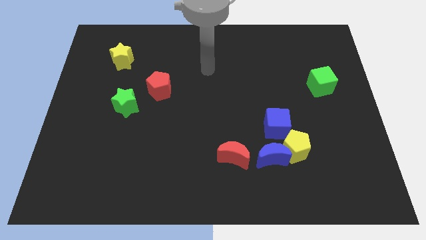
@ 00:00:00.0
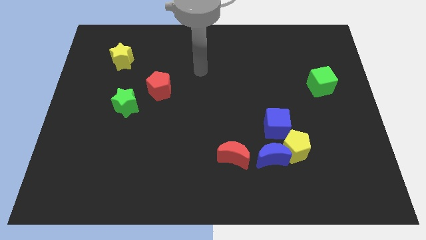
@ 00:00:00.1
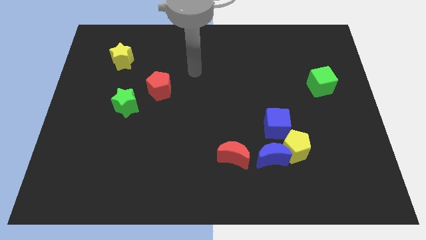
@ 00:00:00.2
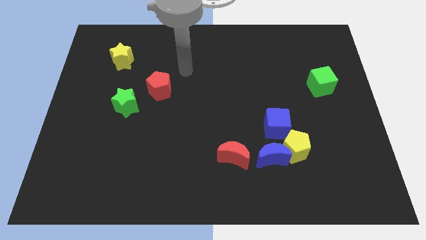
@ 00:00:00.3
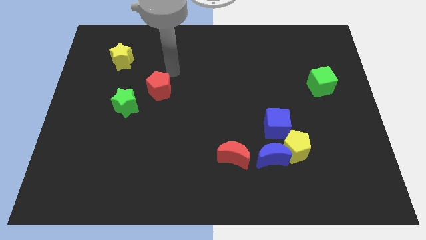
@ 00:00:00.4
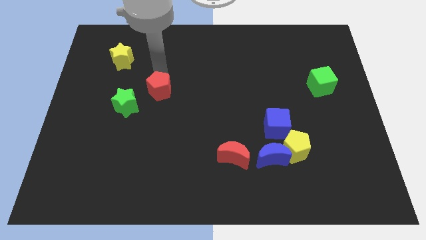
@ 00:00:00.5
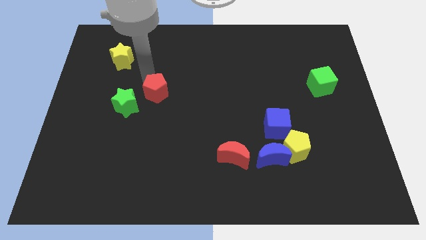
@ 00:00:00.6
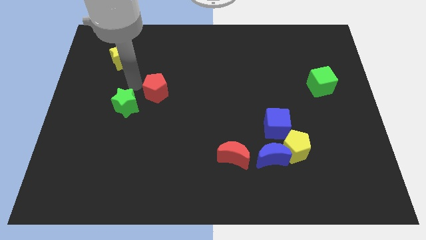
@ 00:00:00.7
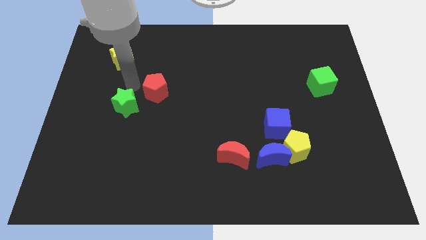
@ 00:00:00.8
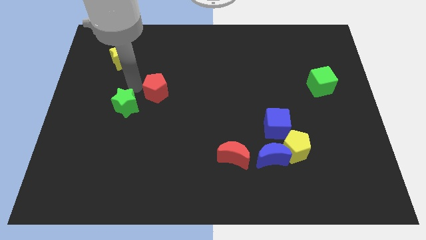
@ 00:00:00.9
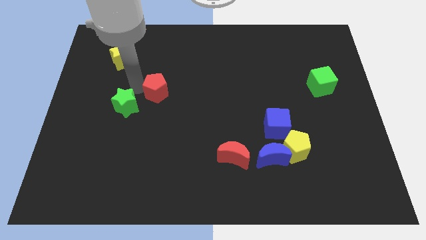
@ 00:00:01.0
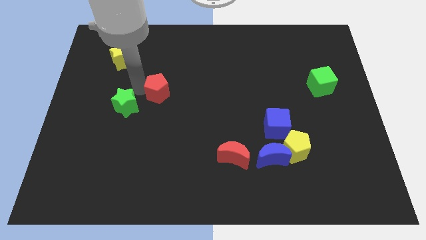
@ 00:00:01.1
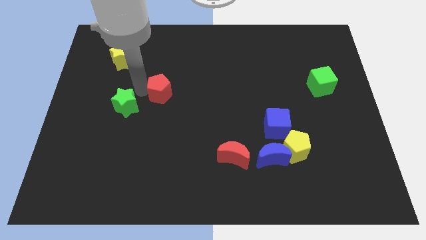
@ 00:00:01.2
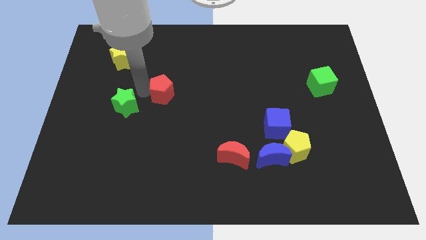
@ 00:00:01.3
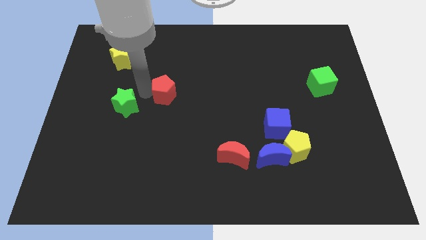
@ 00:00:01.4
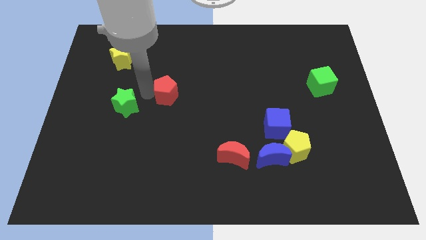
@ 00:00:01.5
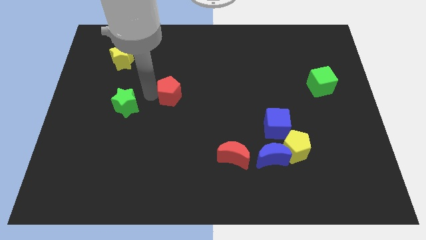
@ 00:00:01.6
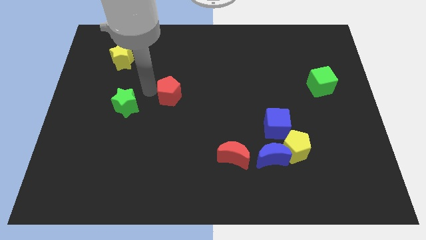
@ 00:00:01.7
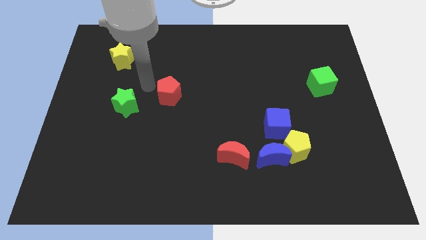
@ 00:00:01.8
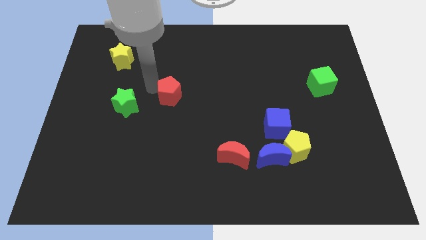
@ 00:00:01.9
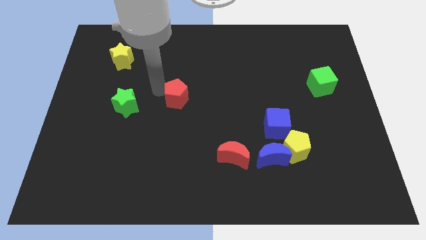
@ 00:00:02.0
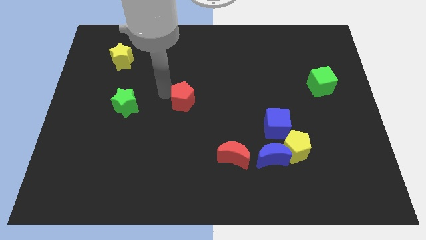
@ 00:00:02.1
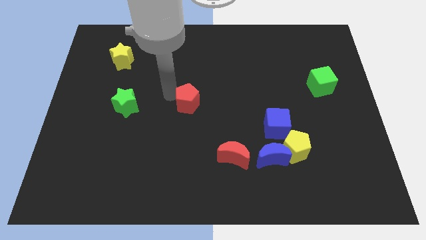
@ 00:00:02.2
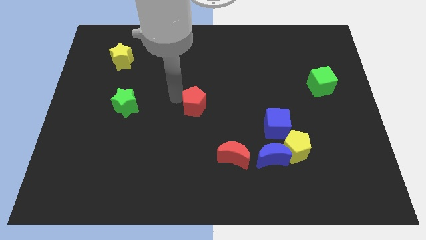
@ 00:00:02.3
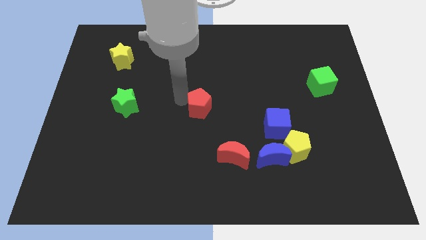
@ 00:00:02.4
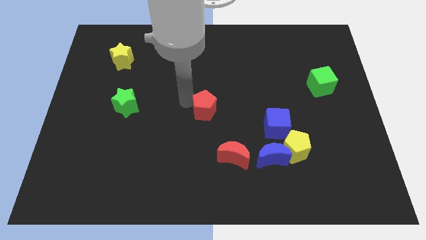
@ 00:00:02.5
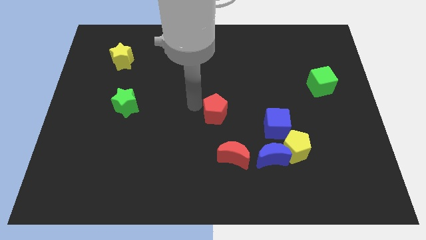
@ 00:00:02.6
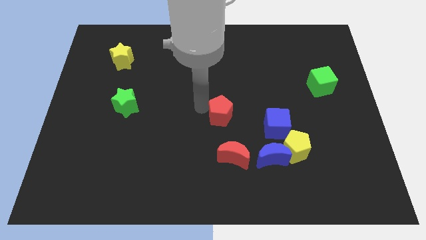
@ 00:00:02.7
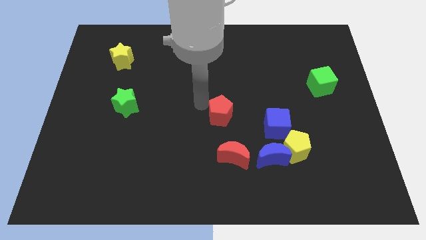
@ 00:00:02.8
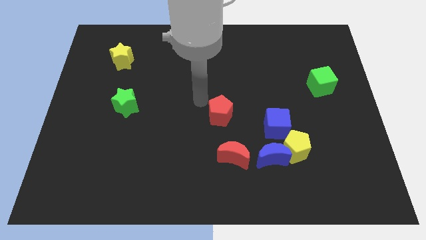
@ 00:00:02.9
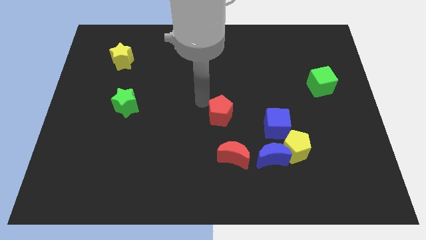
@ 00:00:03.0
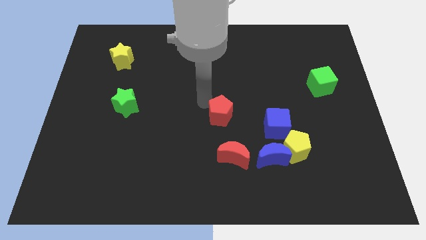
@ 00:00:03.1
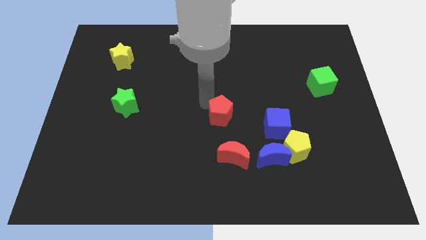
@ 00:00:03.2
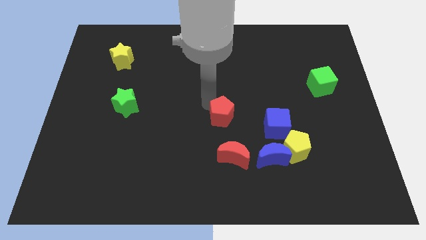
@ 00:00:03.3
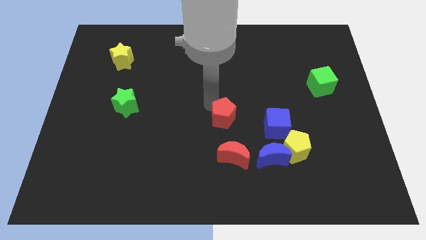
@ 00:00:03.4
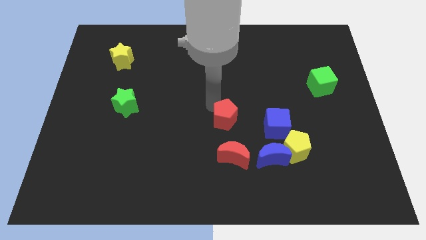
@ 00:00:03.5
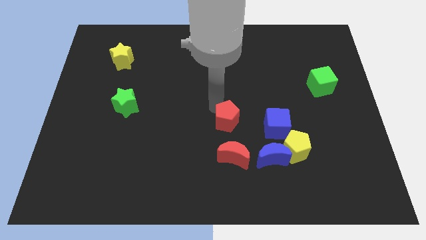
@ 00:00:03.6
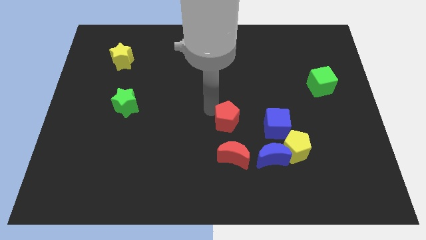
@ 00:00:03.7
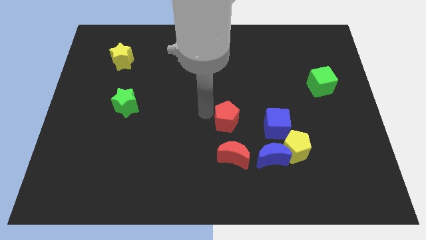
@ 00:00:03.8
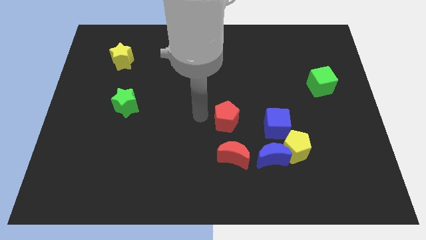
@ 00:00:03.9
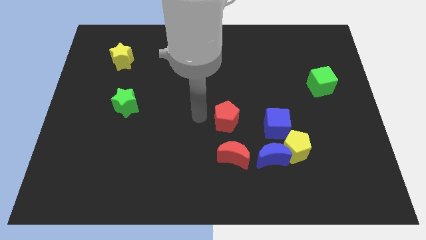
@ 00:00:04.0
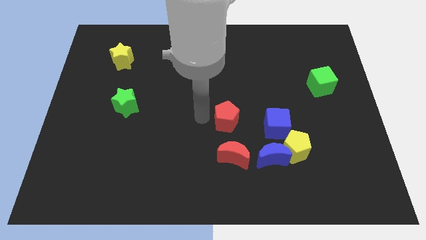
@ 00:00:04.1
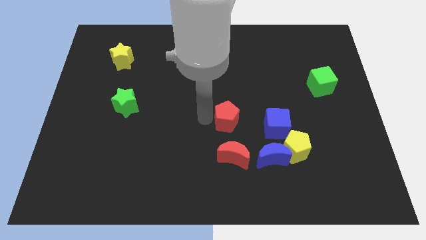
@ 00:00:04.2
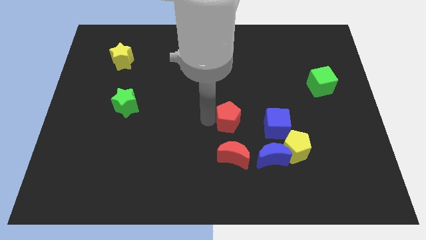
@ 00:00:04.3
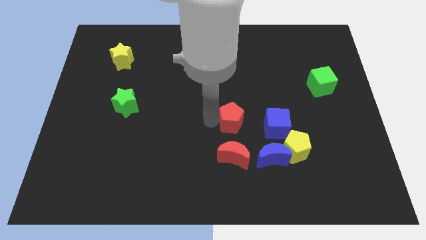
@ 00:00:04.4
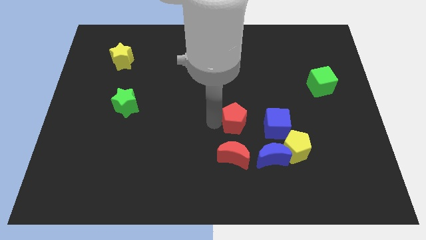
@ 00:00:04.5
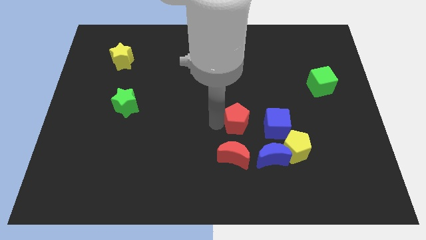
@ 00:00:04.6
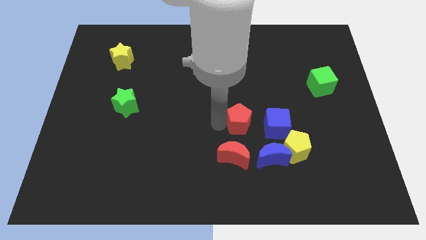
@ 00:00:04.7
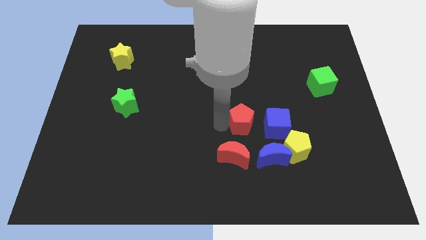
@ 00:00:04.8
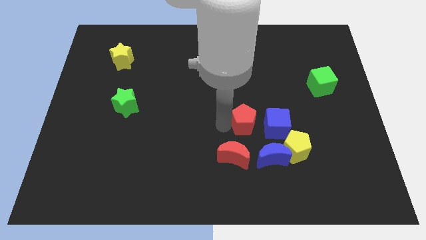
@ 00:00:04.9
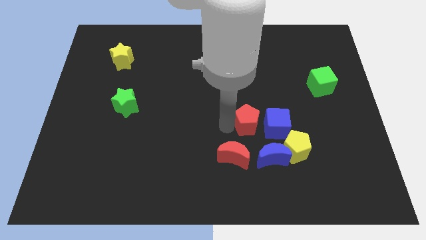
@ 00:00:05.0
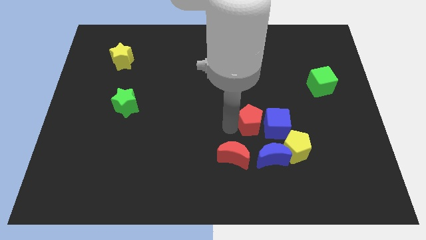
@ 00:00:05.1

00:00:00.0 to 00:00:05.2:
push the red pentagon towards the blue cube

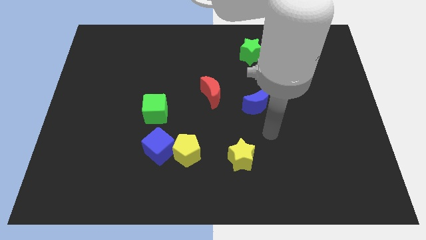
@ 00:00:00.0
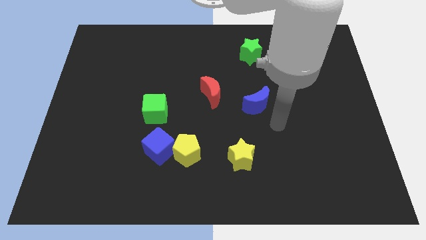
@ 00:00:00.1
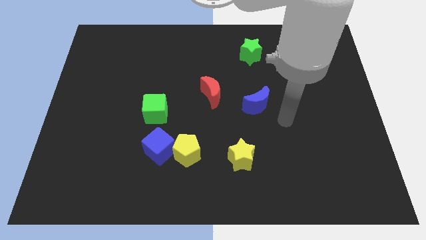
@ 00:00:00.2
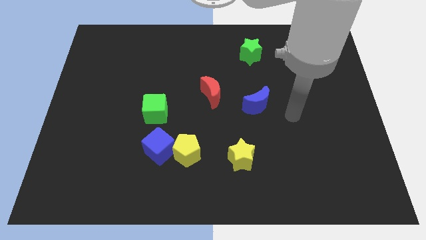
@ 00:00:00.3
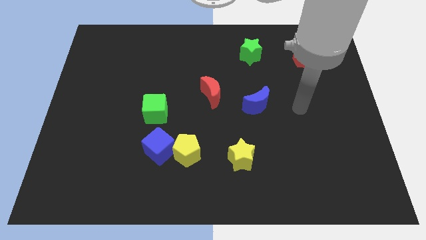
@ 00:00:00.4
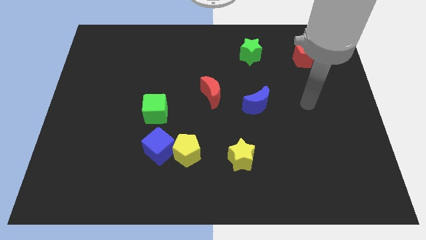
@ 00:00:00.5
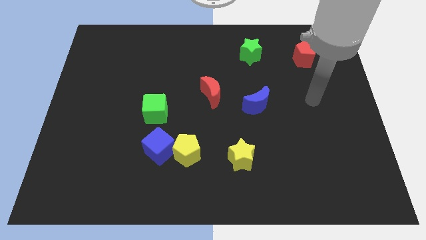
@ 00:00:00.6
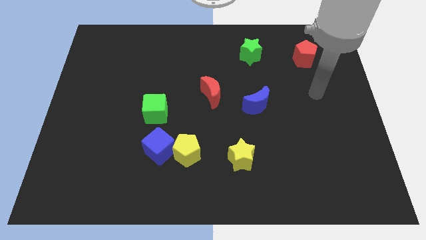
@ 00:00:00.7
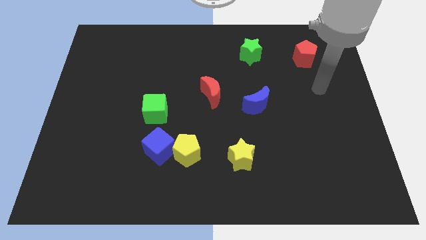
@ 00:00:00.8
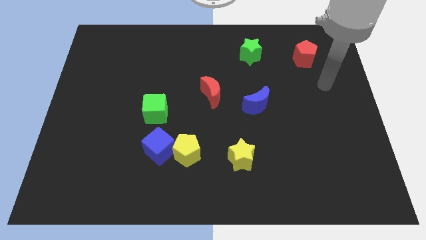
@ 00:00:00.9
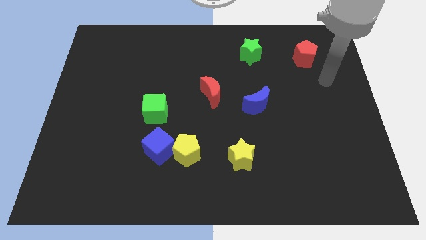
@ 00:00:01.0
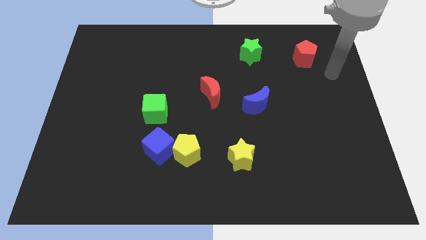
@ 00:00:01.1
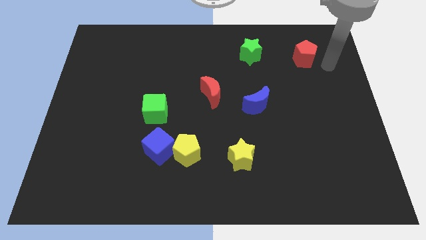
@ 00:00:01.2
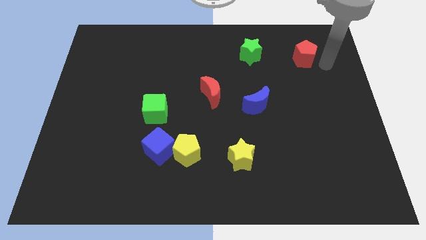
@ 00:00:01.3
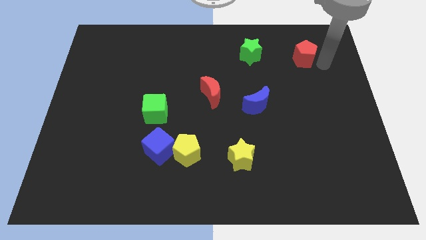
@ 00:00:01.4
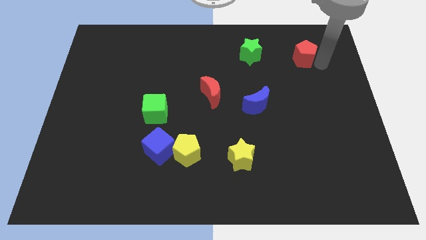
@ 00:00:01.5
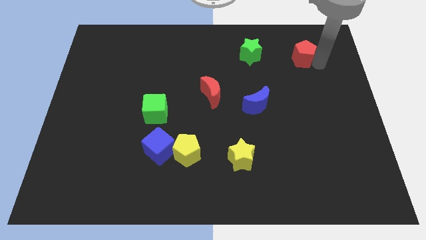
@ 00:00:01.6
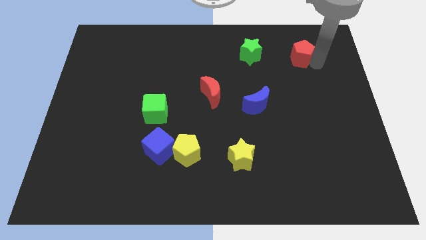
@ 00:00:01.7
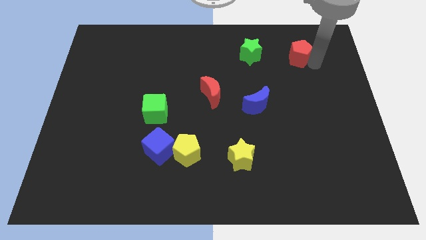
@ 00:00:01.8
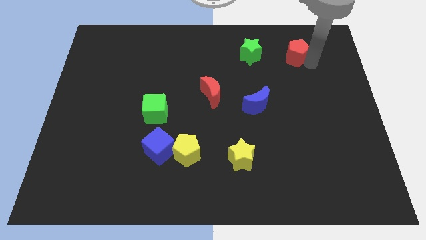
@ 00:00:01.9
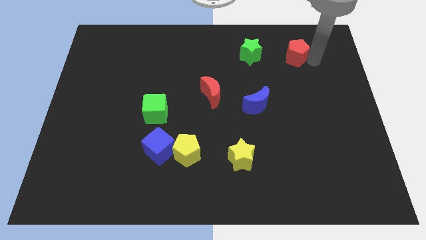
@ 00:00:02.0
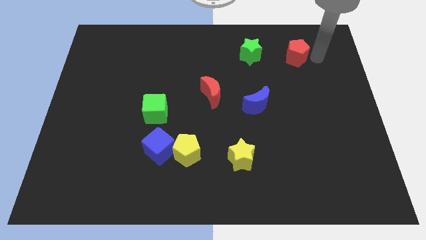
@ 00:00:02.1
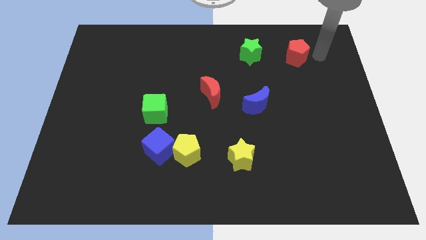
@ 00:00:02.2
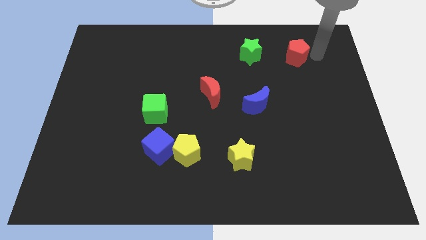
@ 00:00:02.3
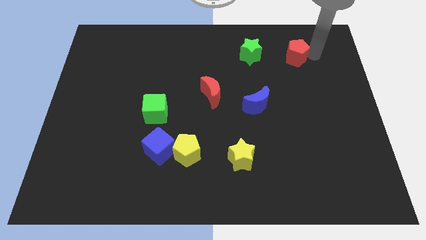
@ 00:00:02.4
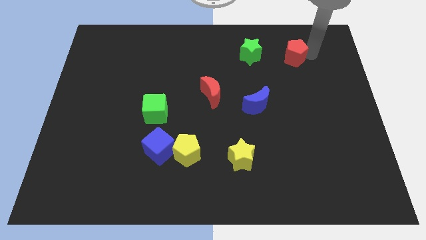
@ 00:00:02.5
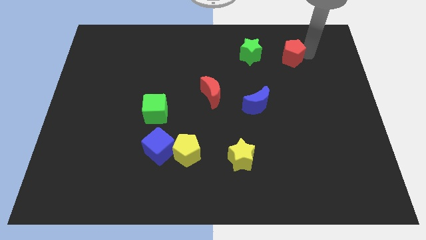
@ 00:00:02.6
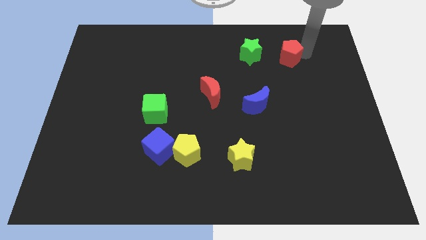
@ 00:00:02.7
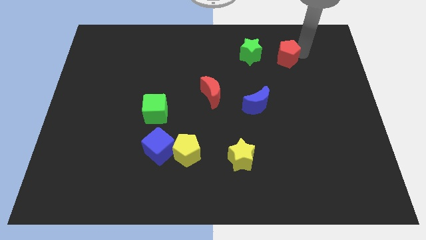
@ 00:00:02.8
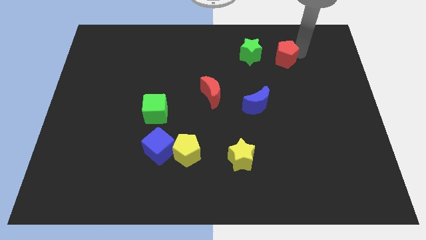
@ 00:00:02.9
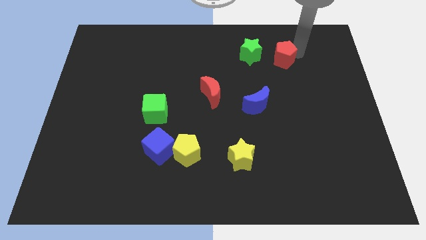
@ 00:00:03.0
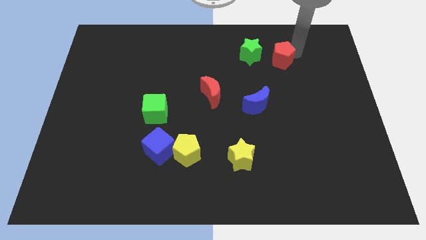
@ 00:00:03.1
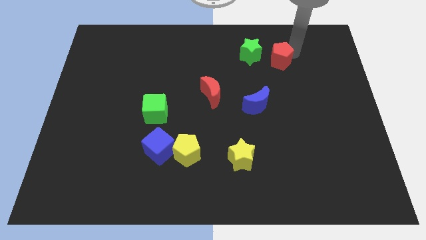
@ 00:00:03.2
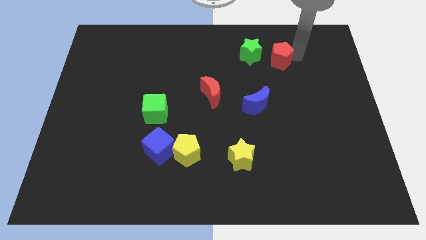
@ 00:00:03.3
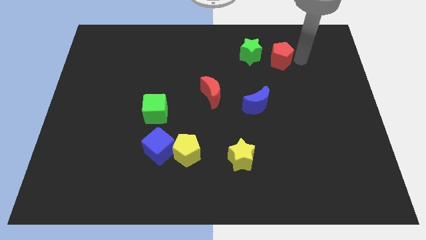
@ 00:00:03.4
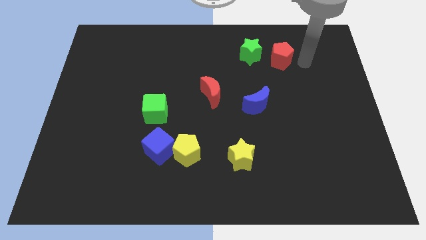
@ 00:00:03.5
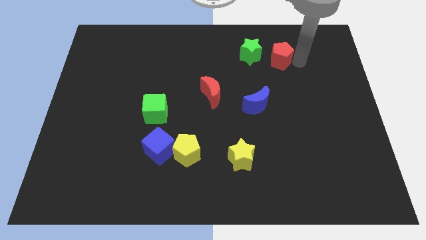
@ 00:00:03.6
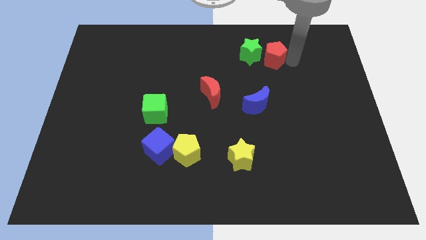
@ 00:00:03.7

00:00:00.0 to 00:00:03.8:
put the red pentagon towards the green star
